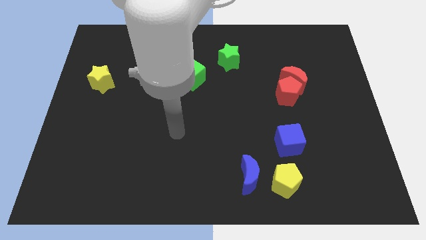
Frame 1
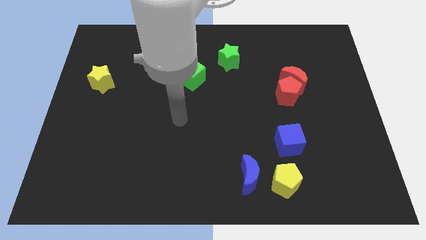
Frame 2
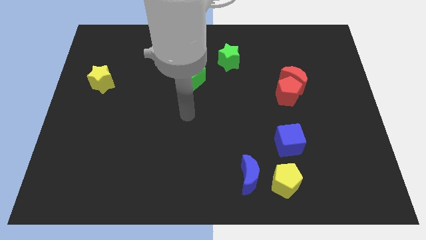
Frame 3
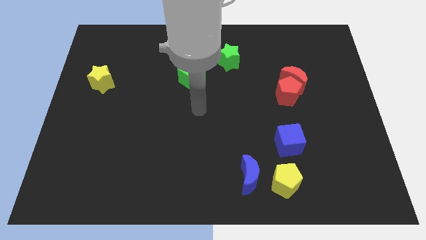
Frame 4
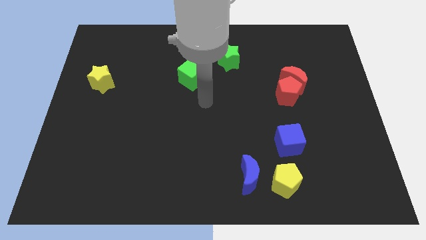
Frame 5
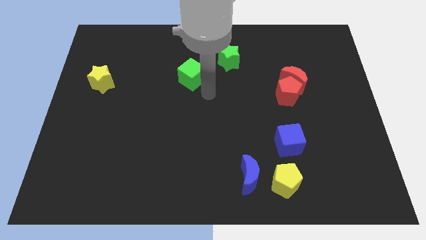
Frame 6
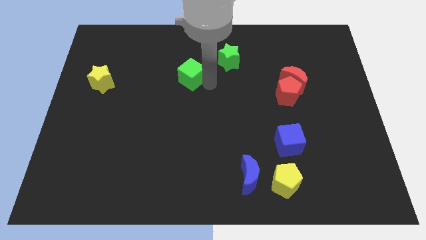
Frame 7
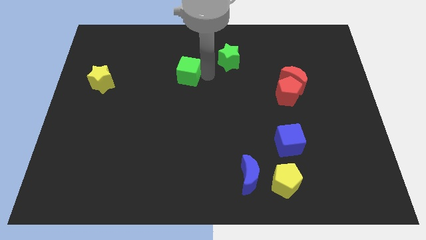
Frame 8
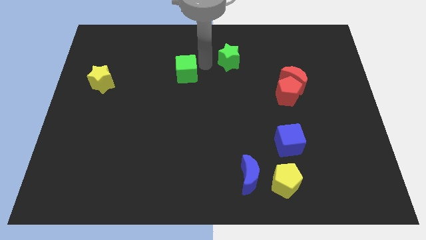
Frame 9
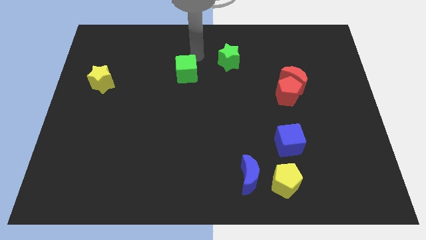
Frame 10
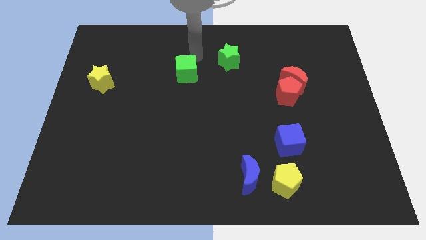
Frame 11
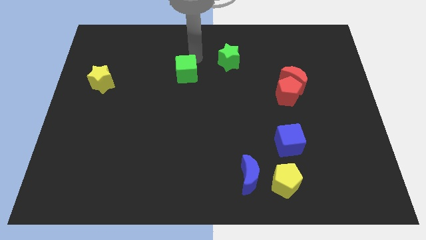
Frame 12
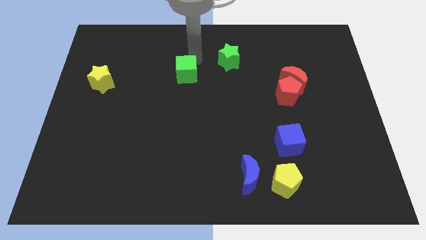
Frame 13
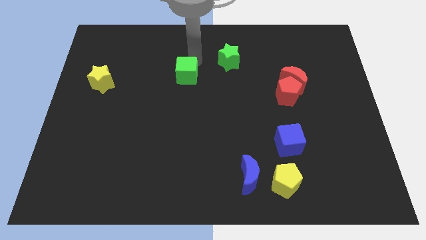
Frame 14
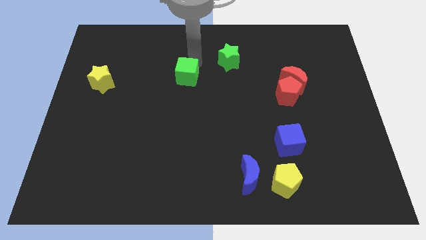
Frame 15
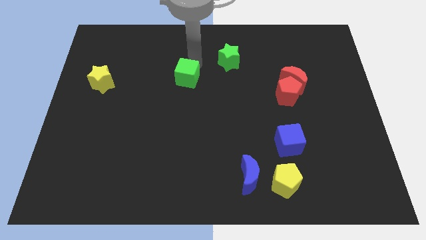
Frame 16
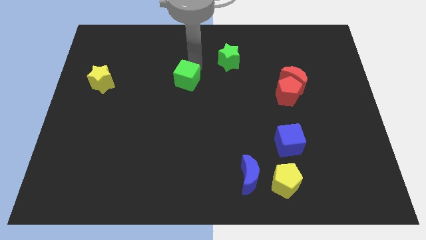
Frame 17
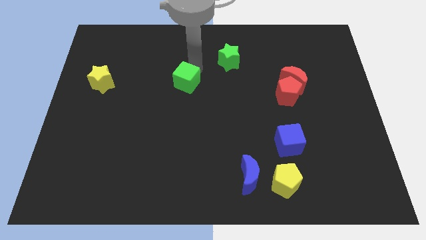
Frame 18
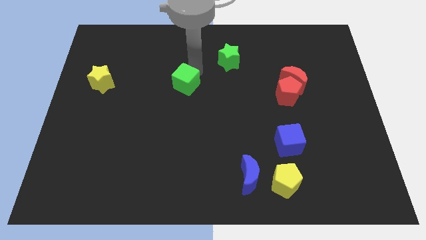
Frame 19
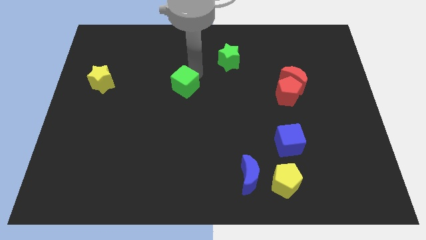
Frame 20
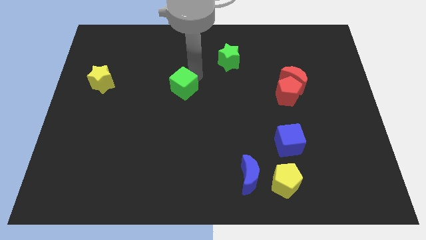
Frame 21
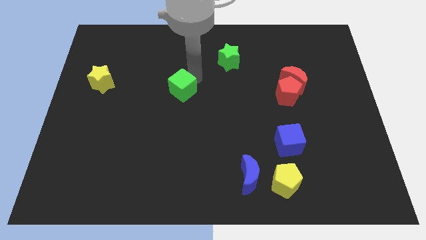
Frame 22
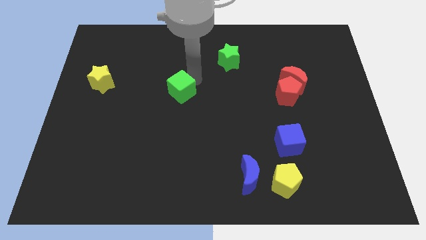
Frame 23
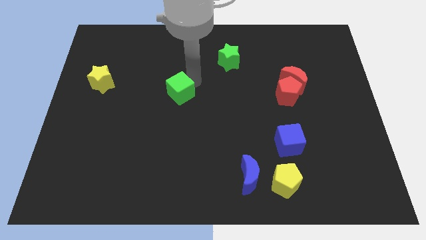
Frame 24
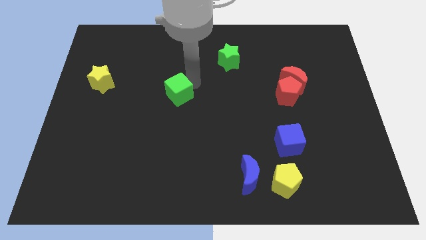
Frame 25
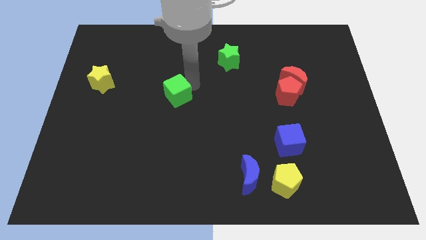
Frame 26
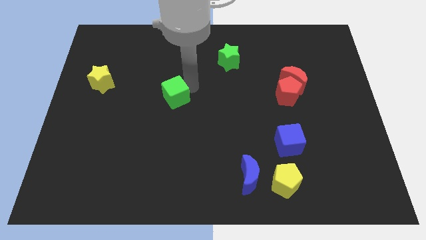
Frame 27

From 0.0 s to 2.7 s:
slide the green cube a little bit down and then left

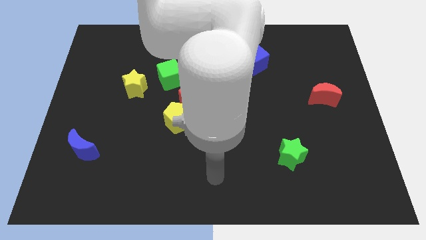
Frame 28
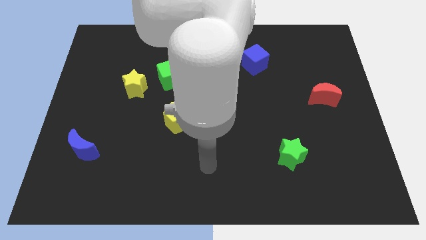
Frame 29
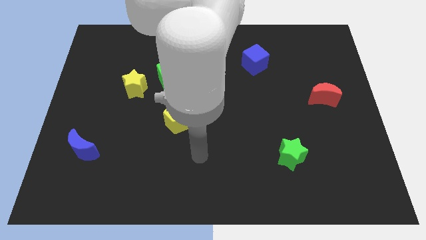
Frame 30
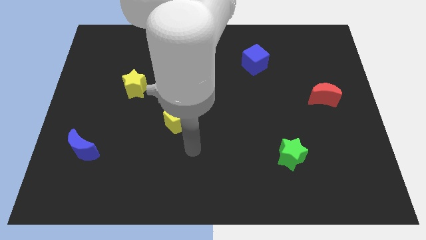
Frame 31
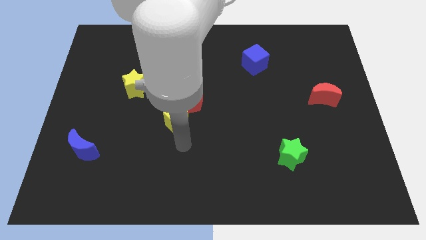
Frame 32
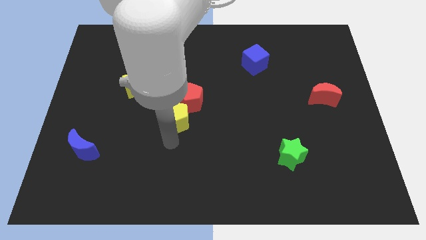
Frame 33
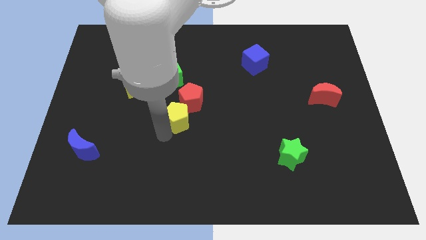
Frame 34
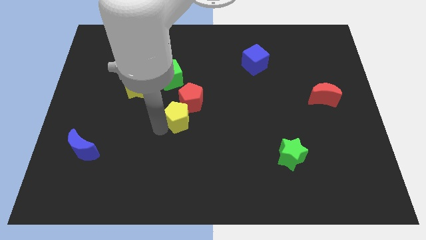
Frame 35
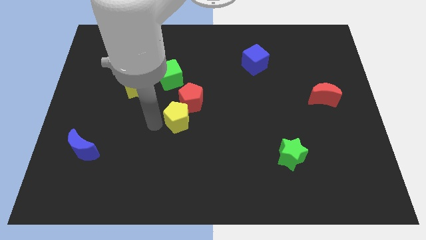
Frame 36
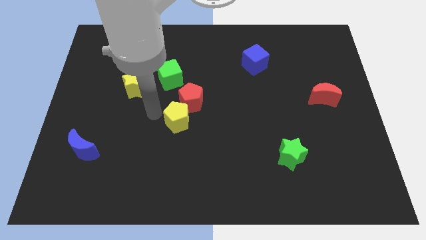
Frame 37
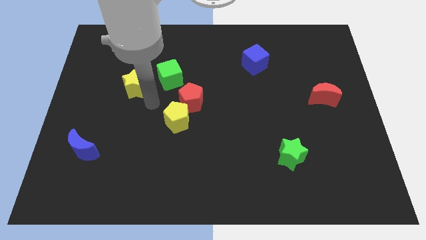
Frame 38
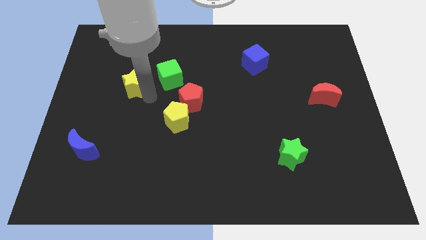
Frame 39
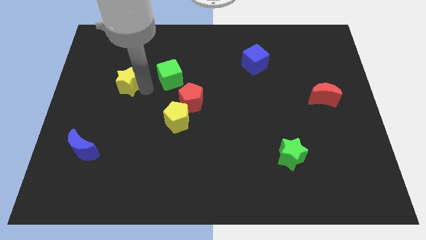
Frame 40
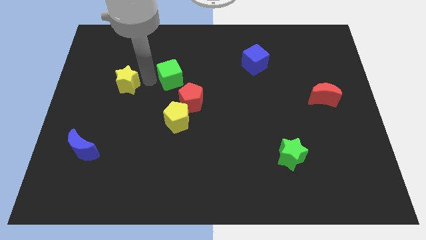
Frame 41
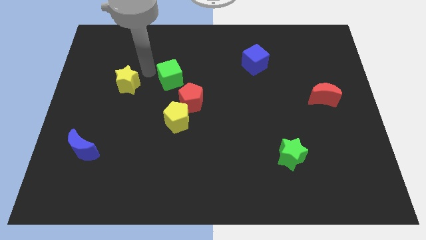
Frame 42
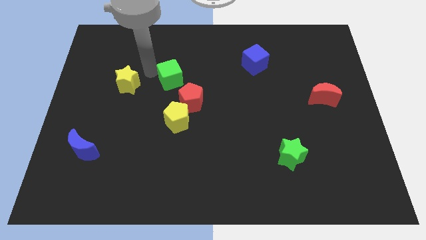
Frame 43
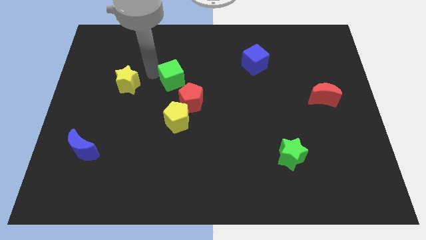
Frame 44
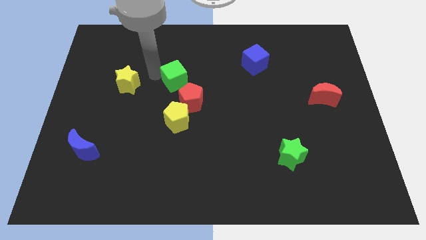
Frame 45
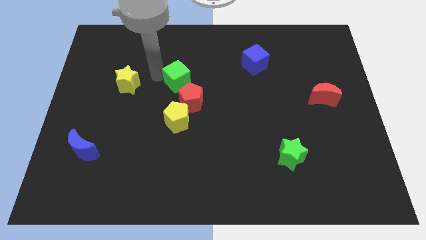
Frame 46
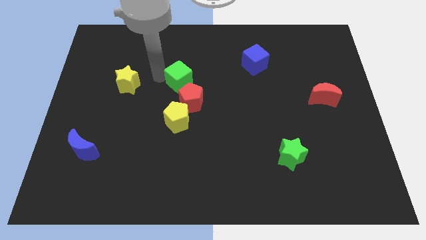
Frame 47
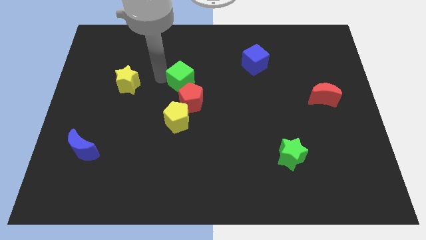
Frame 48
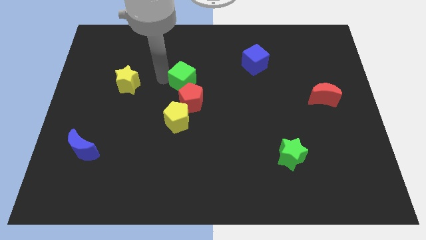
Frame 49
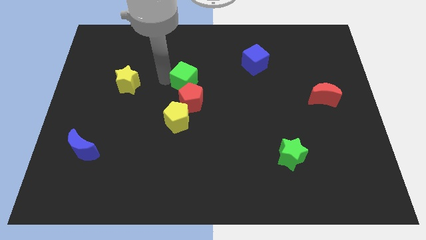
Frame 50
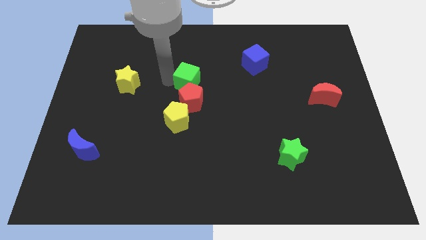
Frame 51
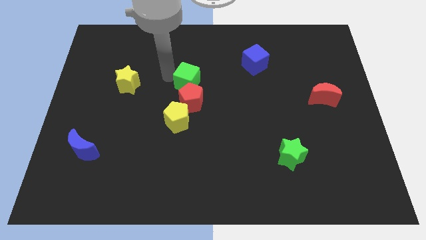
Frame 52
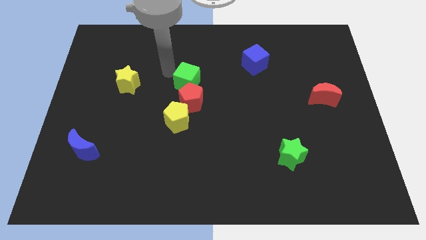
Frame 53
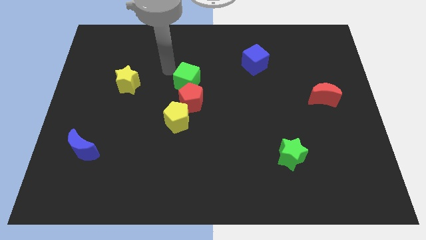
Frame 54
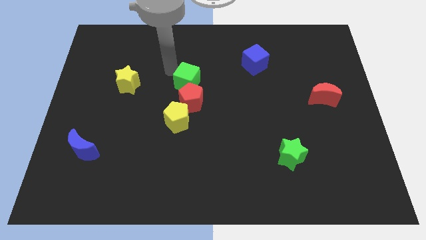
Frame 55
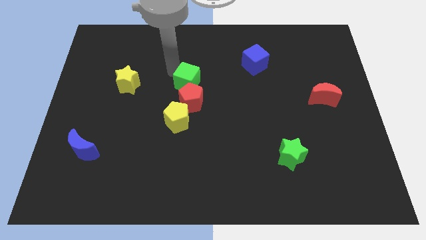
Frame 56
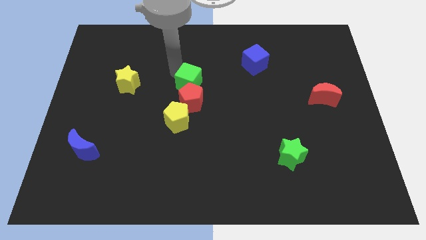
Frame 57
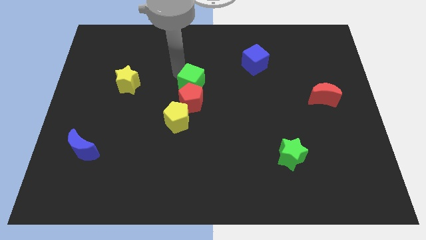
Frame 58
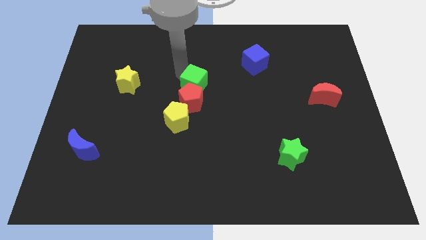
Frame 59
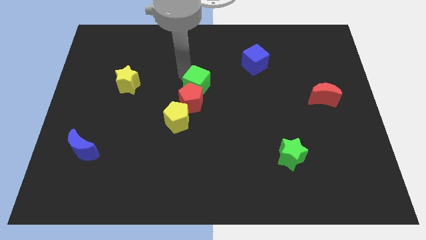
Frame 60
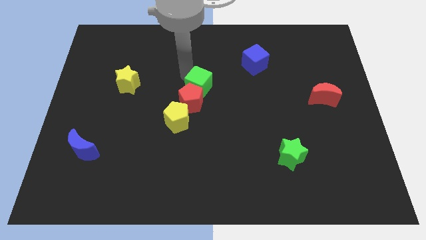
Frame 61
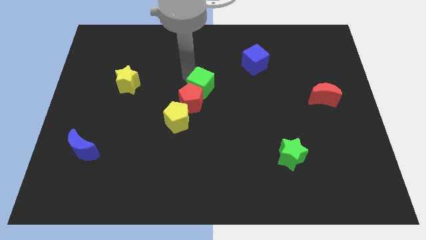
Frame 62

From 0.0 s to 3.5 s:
slide the green cube downwards and then right a little bit

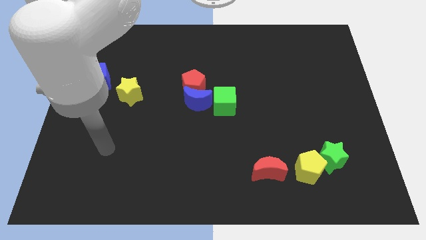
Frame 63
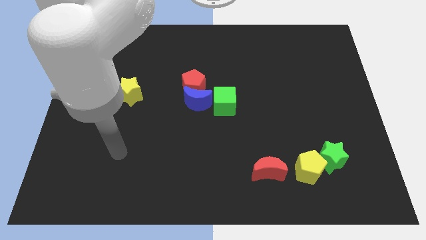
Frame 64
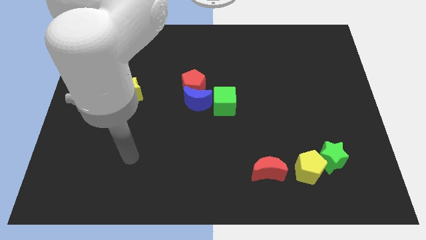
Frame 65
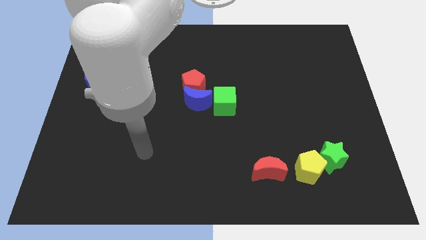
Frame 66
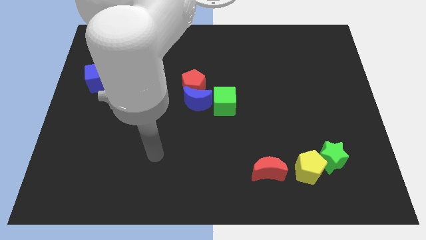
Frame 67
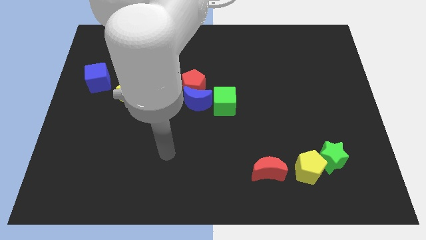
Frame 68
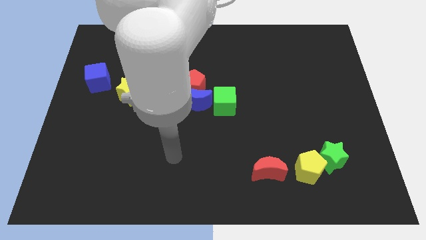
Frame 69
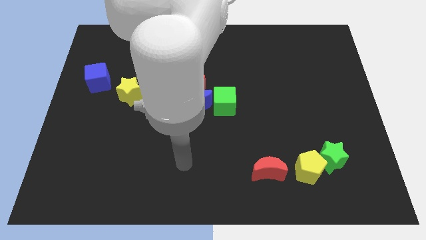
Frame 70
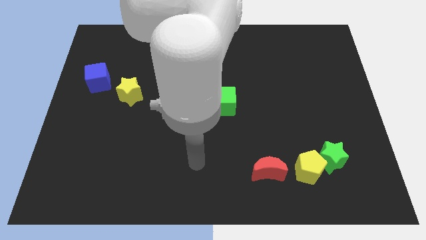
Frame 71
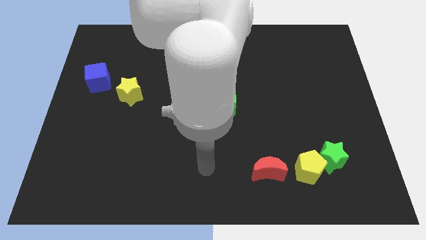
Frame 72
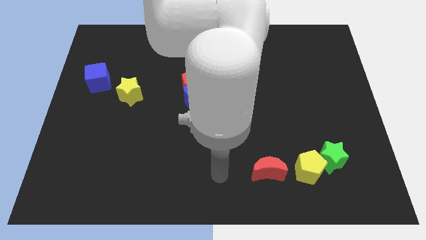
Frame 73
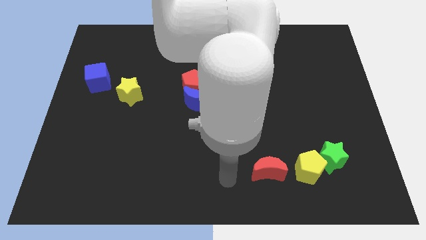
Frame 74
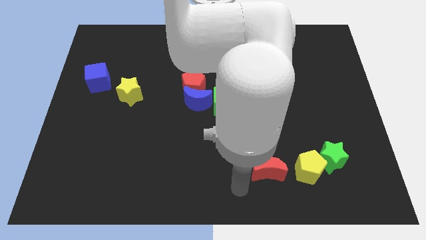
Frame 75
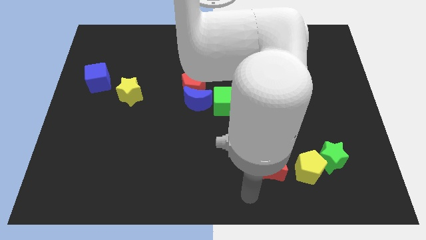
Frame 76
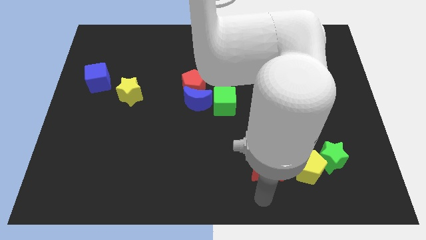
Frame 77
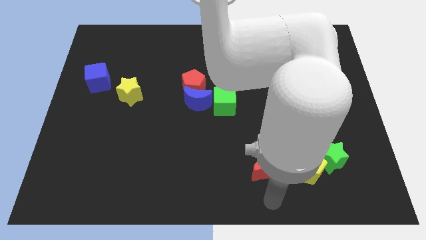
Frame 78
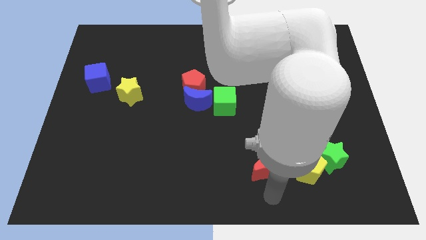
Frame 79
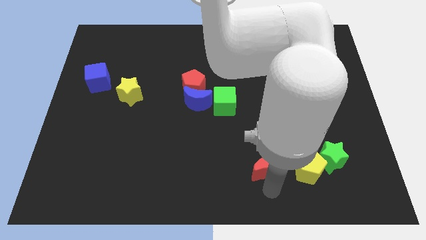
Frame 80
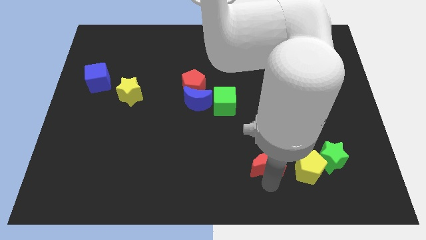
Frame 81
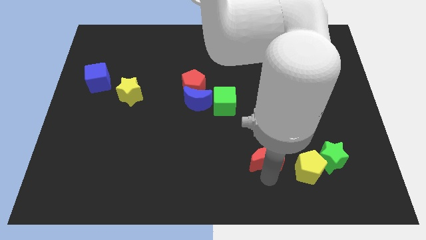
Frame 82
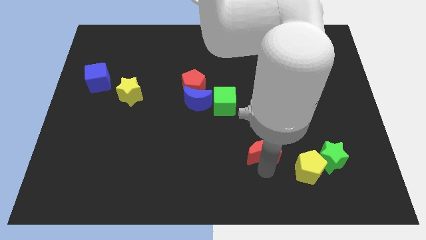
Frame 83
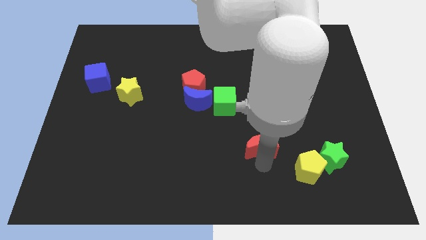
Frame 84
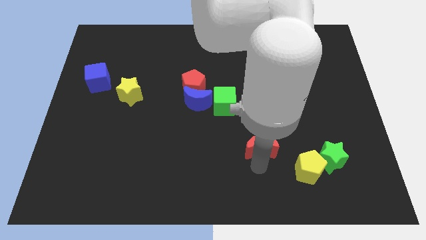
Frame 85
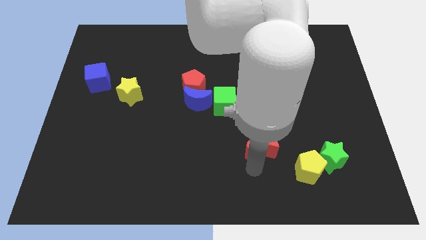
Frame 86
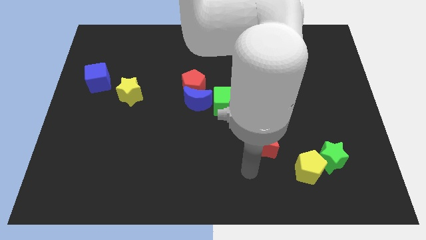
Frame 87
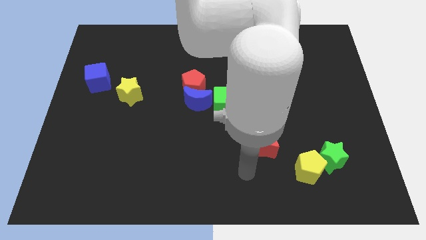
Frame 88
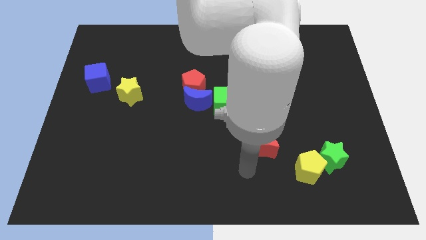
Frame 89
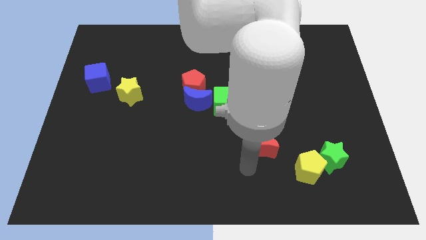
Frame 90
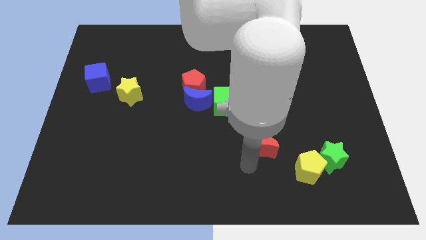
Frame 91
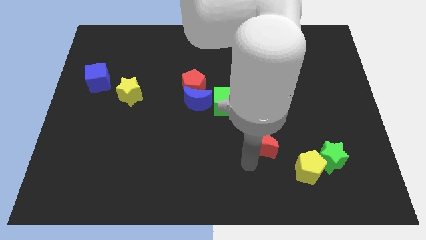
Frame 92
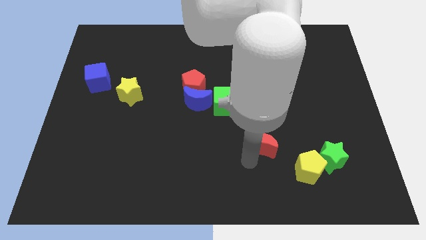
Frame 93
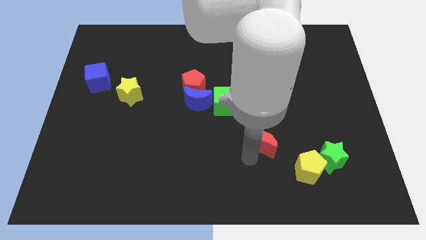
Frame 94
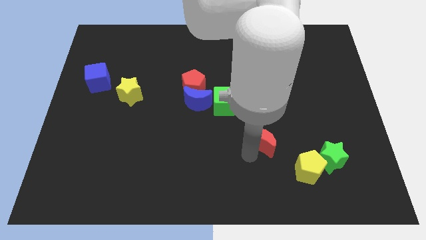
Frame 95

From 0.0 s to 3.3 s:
slide the red moon upwards slightly
